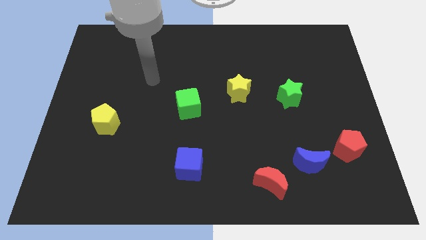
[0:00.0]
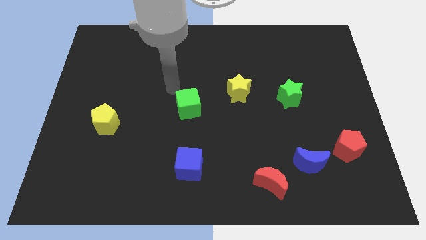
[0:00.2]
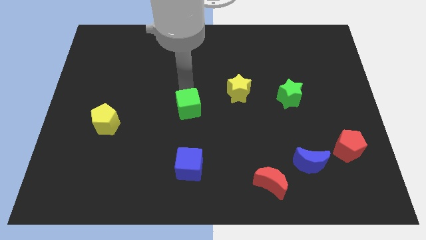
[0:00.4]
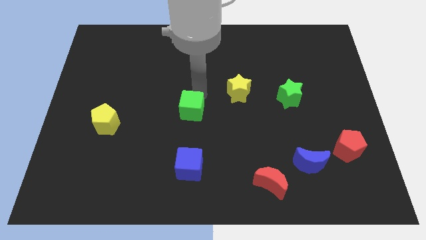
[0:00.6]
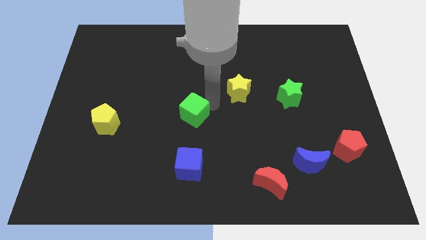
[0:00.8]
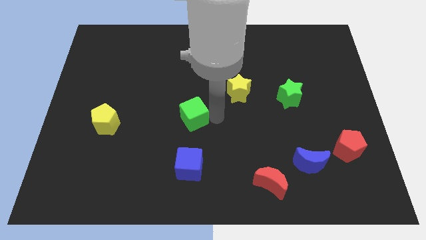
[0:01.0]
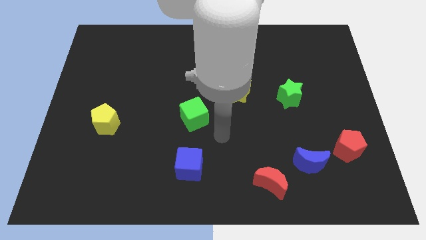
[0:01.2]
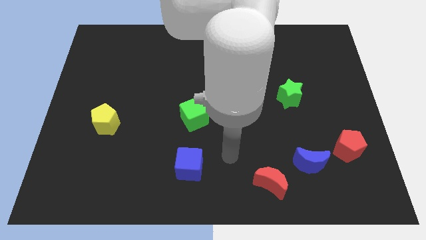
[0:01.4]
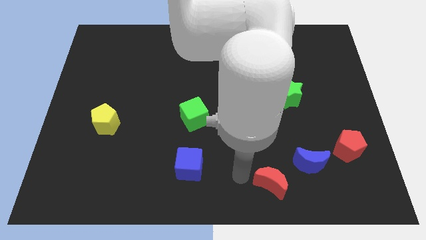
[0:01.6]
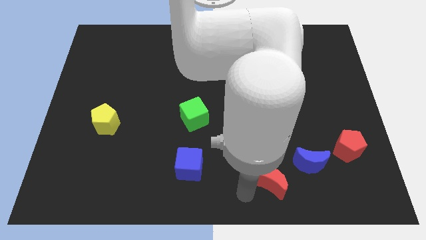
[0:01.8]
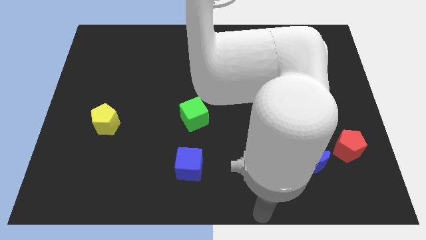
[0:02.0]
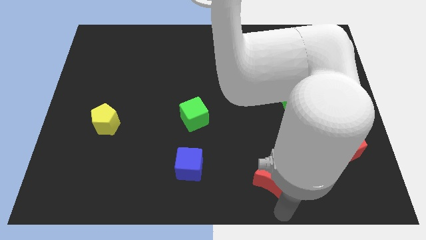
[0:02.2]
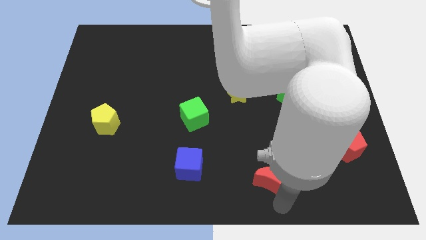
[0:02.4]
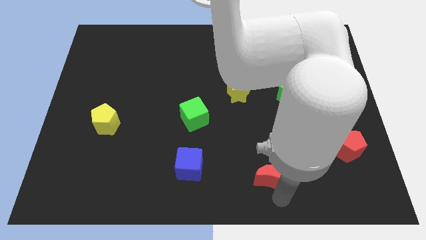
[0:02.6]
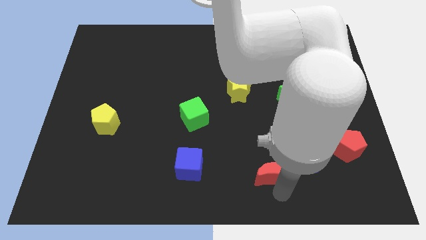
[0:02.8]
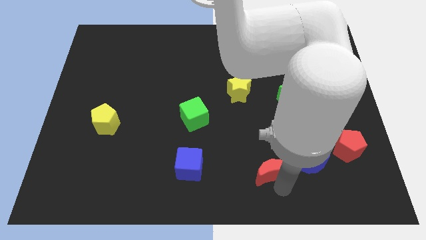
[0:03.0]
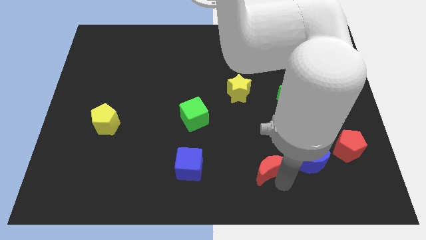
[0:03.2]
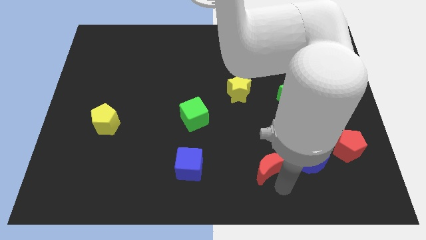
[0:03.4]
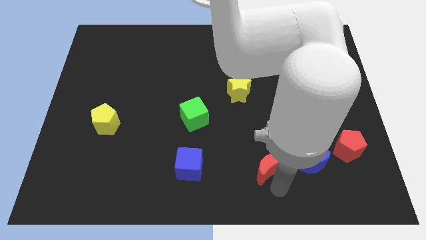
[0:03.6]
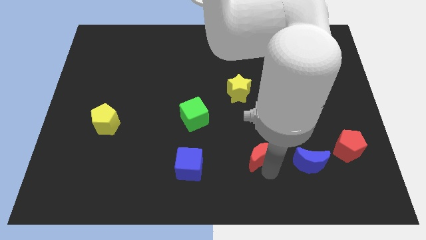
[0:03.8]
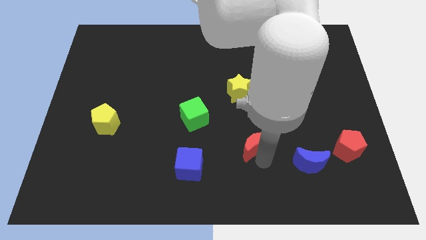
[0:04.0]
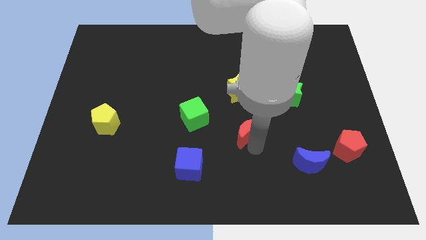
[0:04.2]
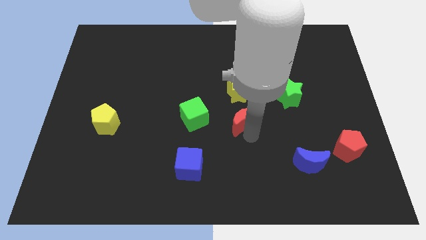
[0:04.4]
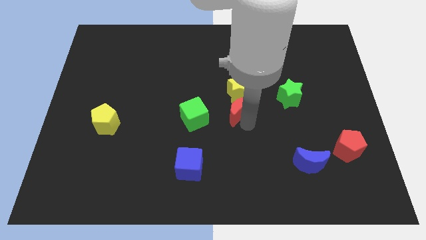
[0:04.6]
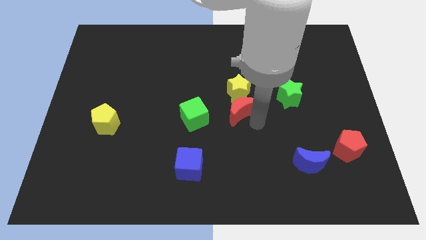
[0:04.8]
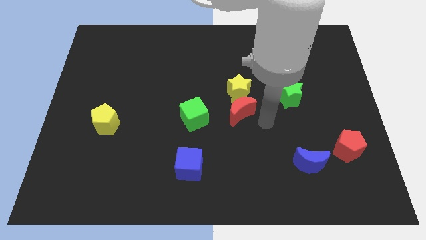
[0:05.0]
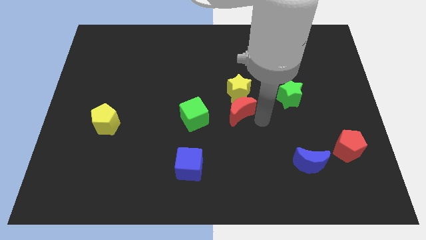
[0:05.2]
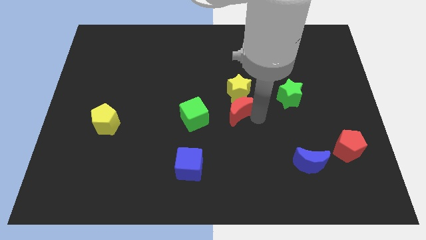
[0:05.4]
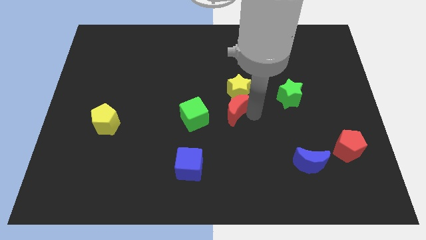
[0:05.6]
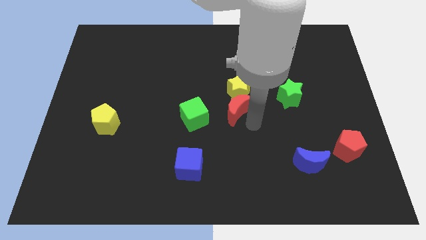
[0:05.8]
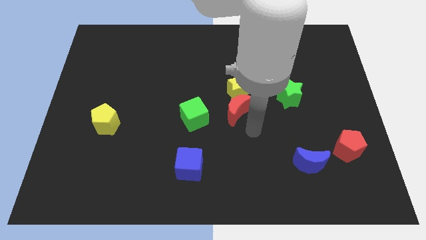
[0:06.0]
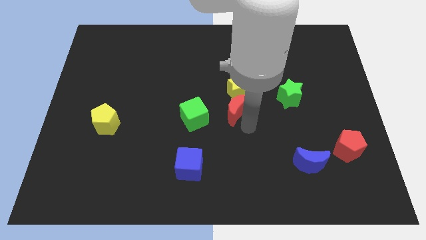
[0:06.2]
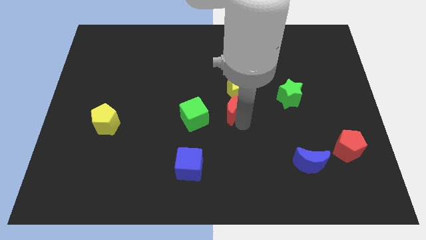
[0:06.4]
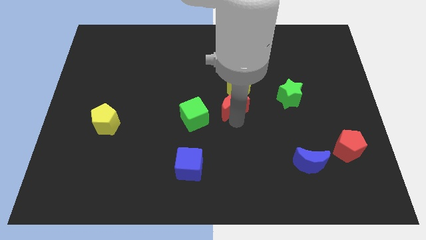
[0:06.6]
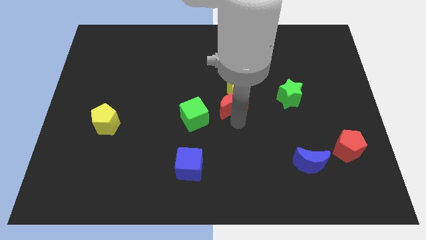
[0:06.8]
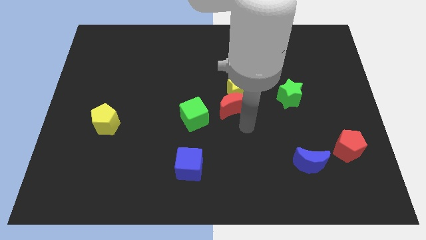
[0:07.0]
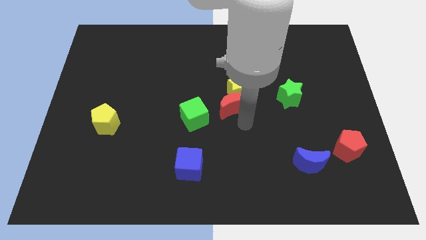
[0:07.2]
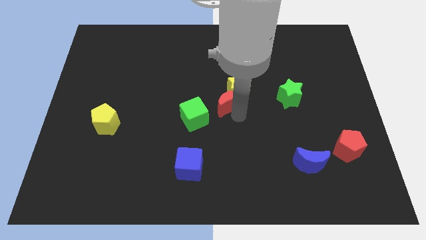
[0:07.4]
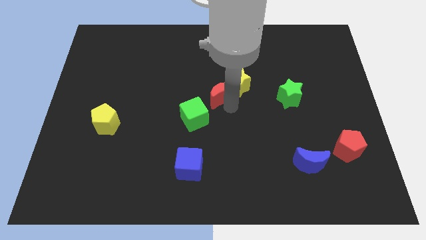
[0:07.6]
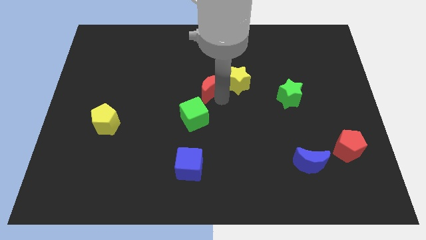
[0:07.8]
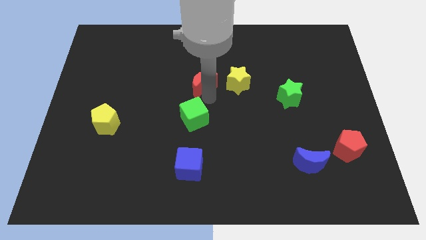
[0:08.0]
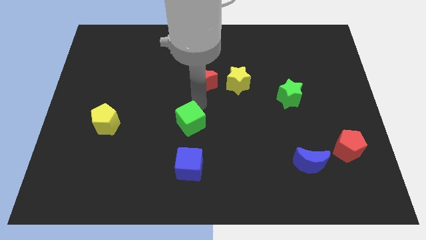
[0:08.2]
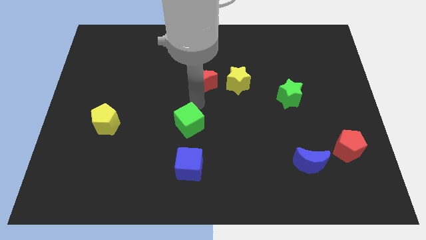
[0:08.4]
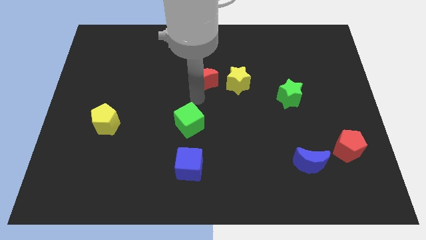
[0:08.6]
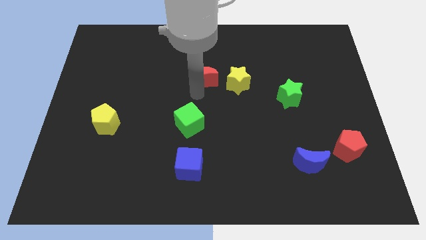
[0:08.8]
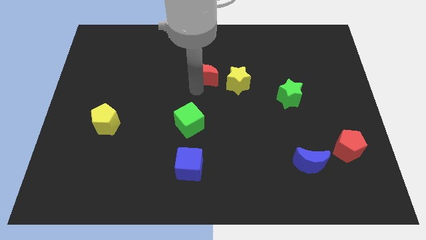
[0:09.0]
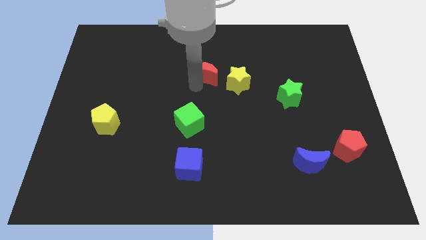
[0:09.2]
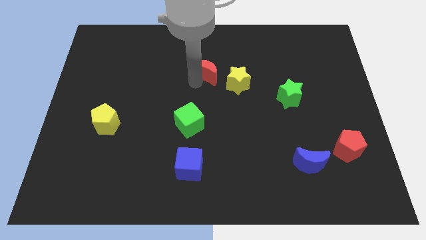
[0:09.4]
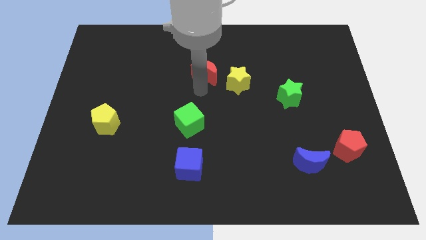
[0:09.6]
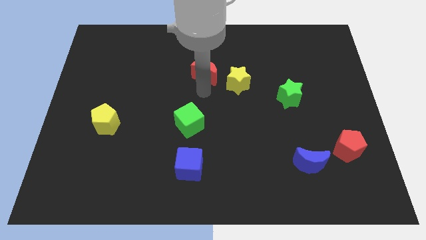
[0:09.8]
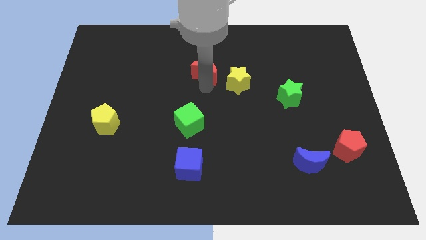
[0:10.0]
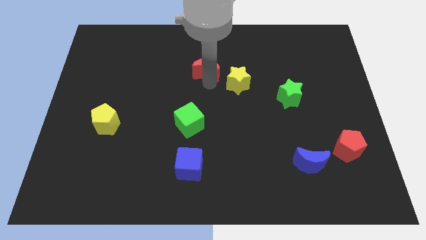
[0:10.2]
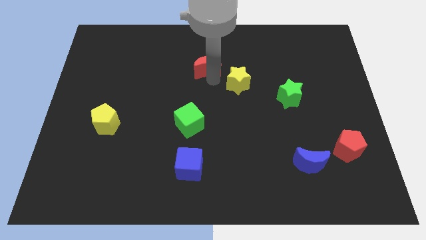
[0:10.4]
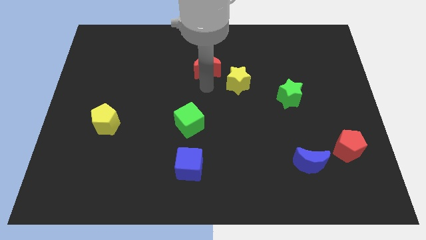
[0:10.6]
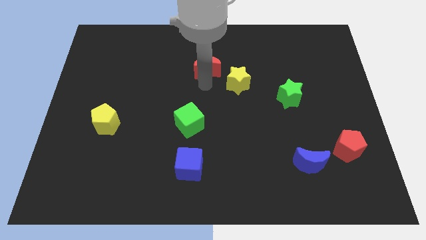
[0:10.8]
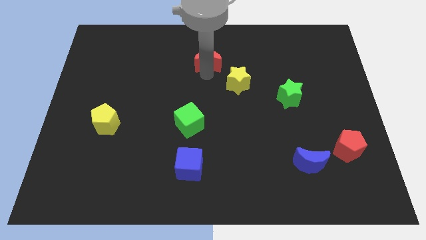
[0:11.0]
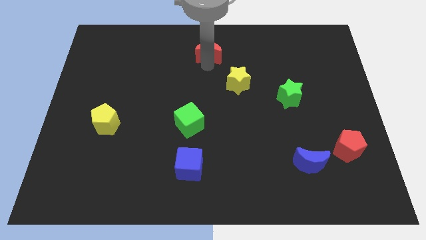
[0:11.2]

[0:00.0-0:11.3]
move the red moon to the top
